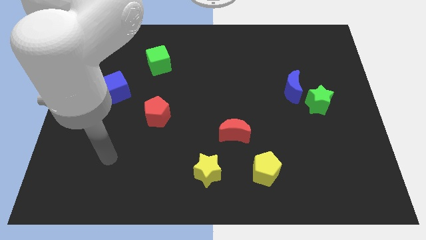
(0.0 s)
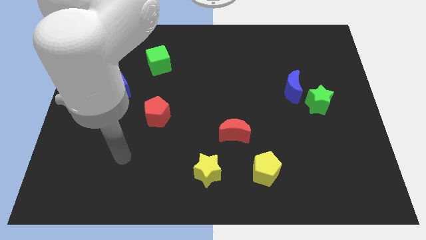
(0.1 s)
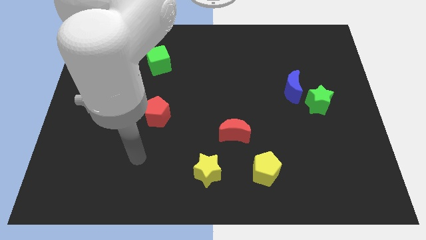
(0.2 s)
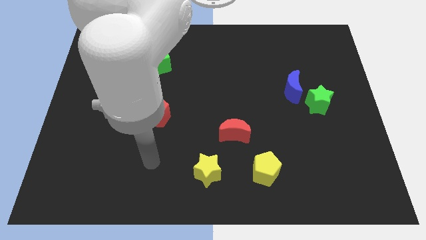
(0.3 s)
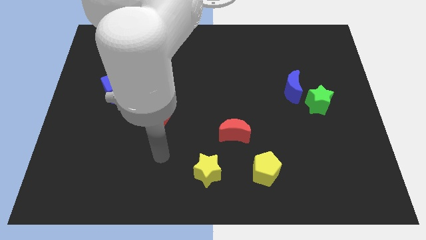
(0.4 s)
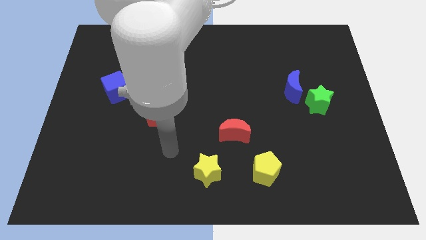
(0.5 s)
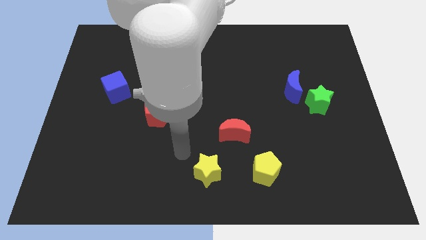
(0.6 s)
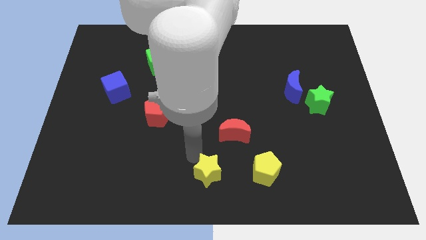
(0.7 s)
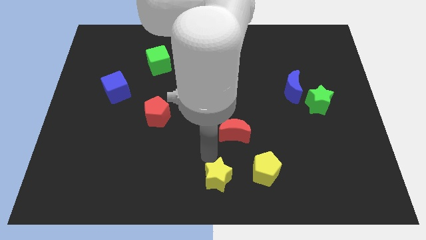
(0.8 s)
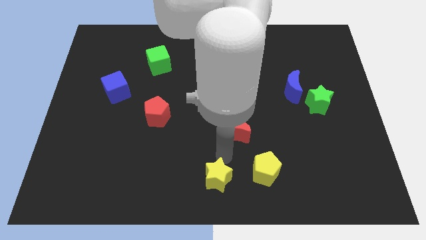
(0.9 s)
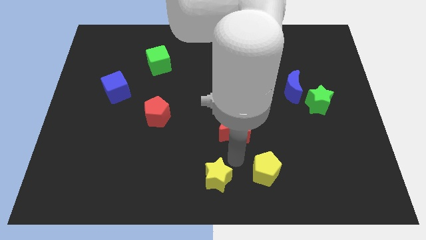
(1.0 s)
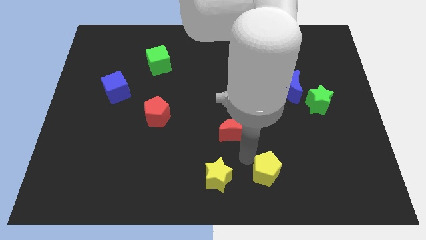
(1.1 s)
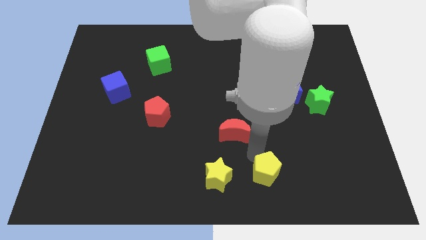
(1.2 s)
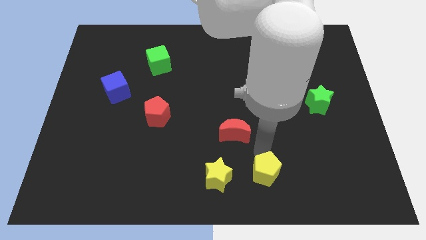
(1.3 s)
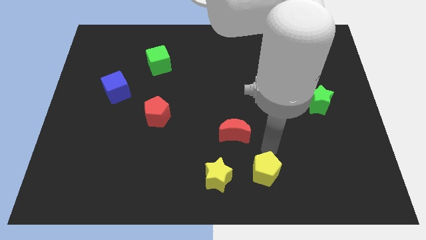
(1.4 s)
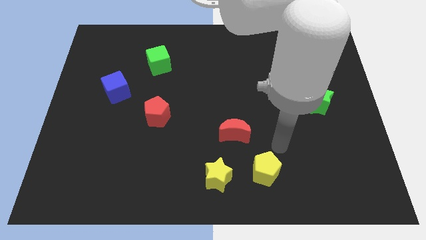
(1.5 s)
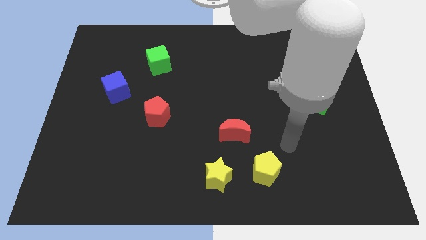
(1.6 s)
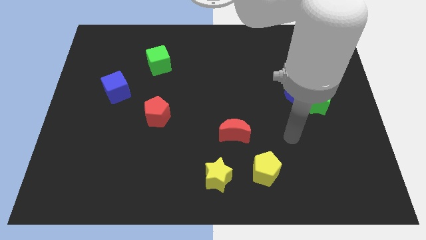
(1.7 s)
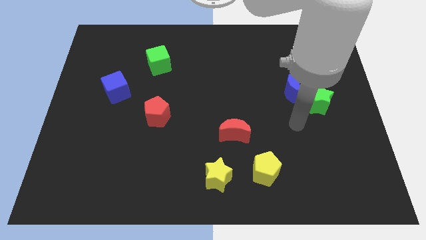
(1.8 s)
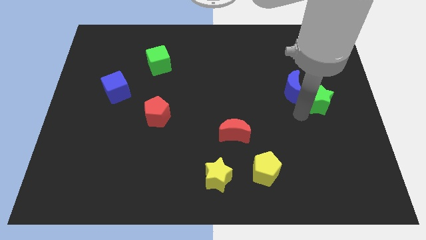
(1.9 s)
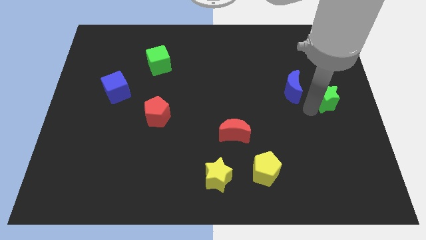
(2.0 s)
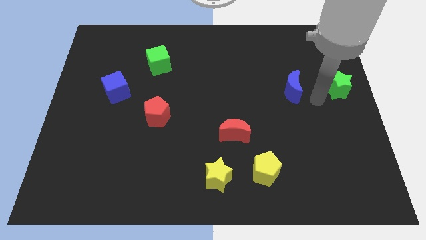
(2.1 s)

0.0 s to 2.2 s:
separate the blue moon from the green star

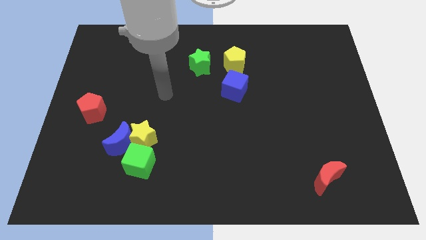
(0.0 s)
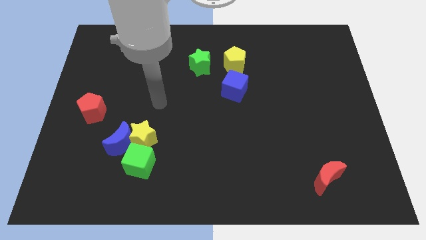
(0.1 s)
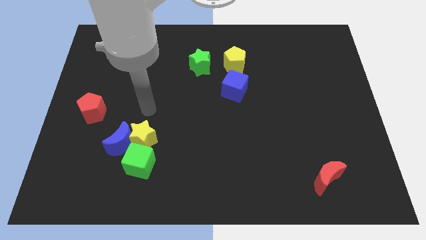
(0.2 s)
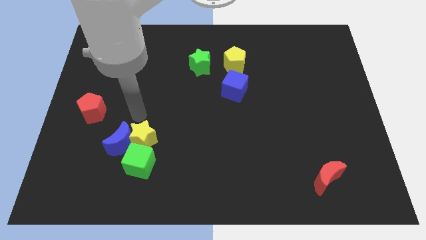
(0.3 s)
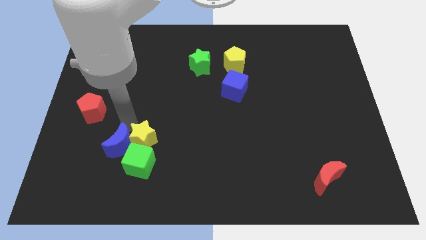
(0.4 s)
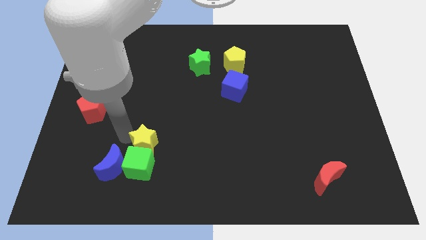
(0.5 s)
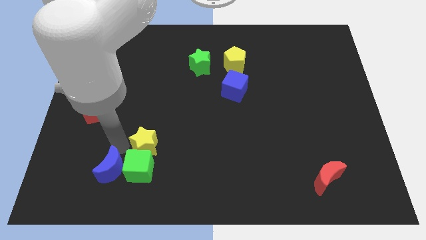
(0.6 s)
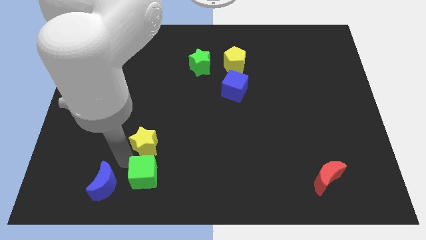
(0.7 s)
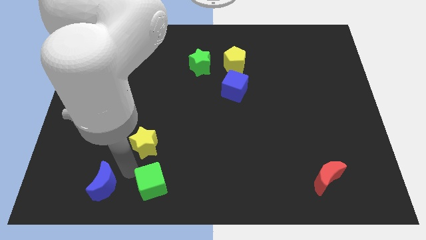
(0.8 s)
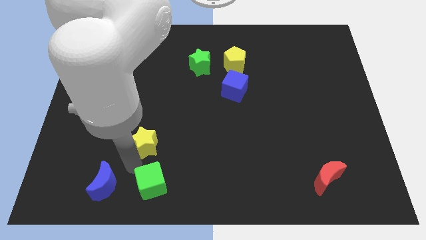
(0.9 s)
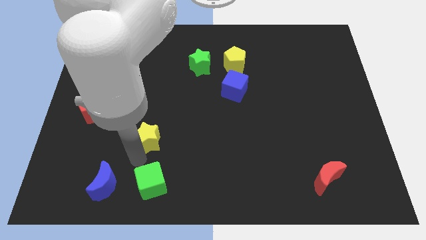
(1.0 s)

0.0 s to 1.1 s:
pull the yellow star apart from the blue moon and green cube

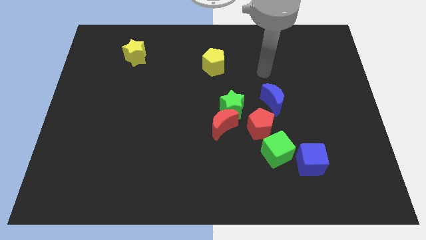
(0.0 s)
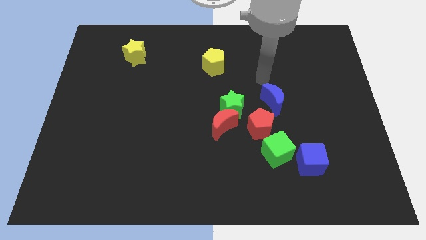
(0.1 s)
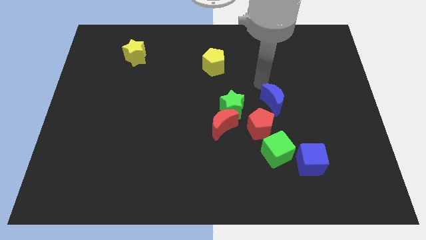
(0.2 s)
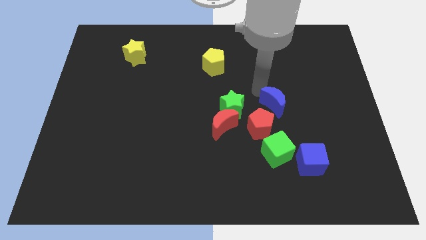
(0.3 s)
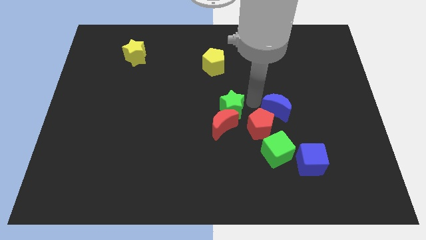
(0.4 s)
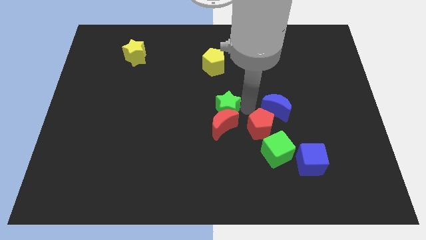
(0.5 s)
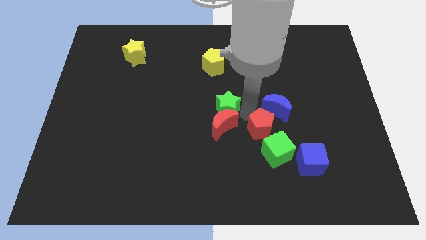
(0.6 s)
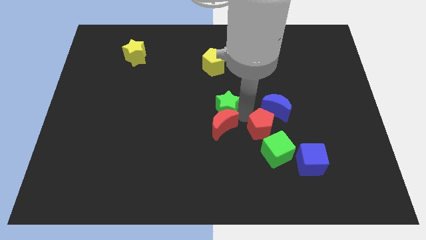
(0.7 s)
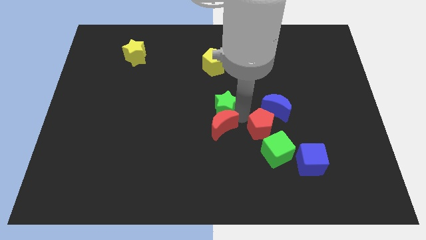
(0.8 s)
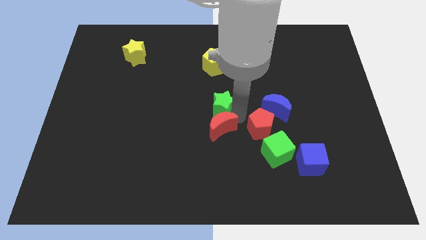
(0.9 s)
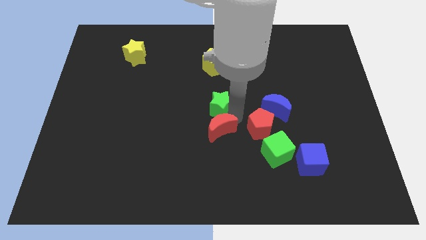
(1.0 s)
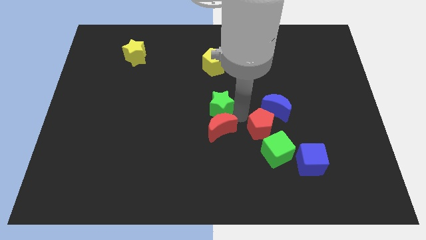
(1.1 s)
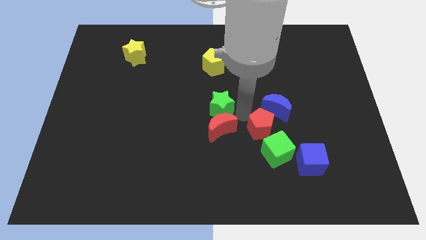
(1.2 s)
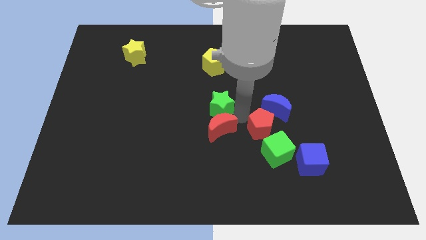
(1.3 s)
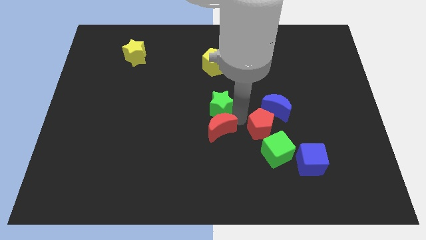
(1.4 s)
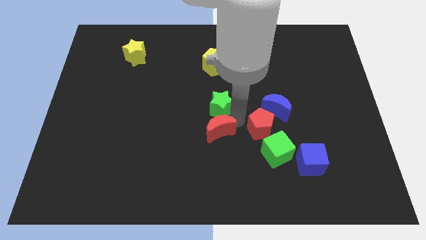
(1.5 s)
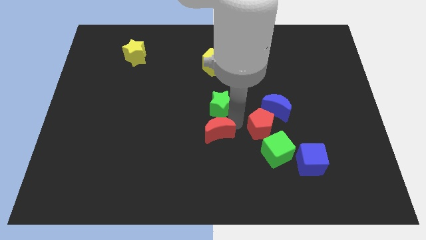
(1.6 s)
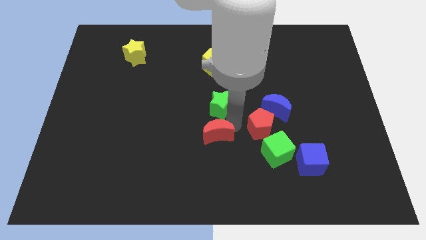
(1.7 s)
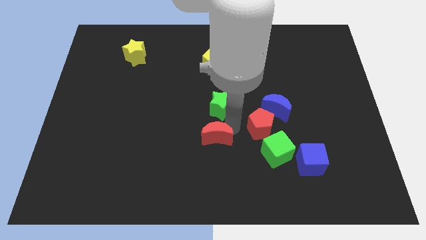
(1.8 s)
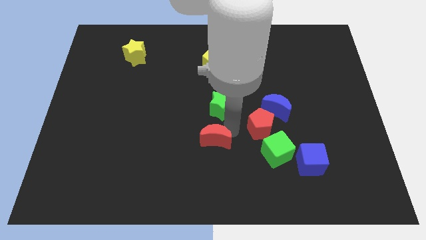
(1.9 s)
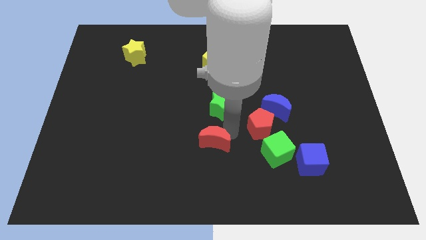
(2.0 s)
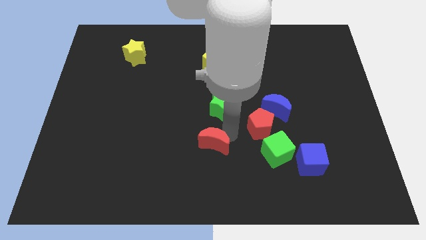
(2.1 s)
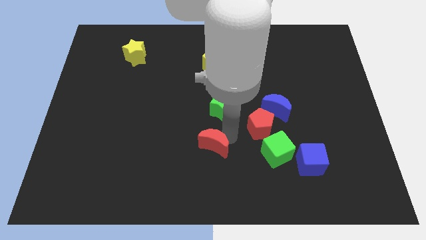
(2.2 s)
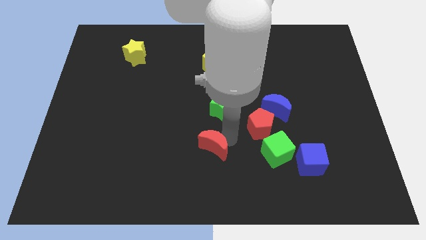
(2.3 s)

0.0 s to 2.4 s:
pull the red moon apart from the green star and red pentagon

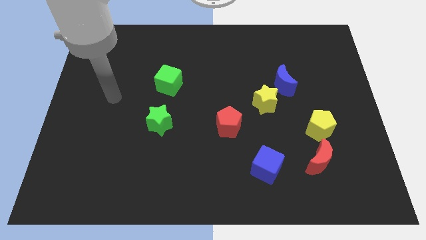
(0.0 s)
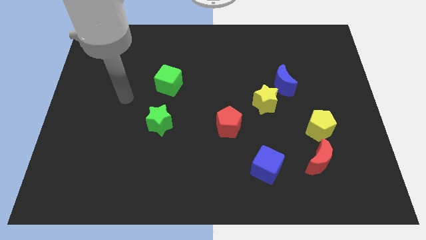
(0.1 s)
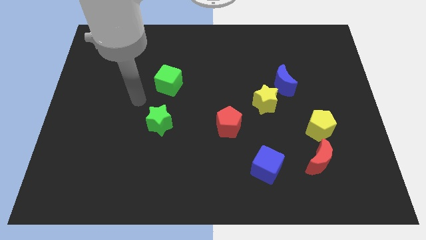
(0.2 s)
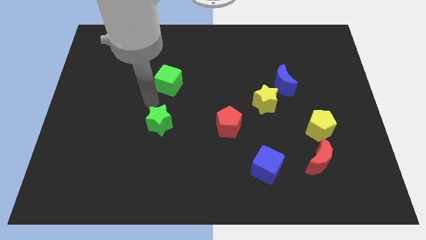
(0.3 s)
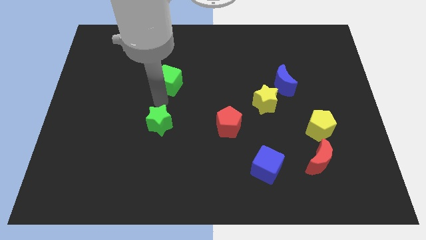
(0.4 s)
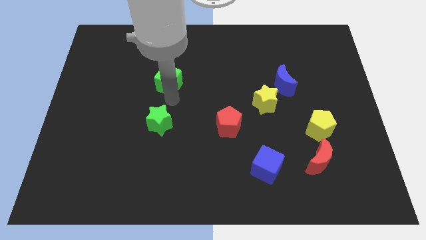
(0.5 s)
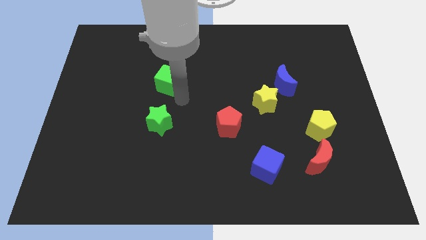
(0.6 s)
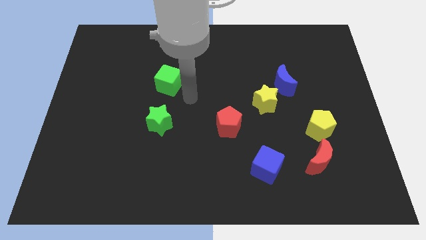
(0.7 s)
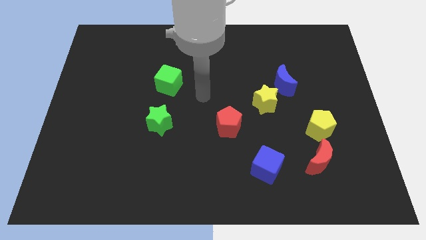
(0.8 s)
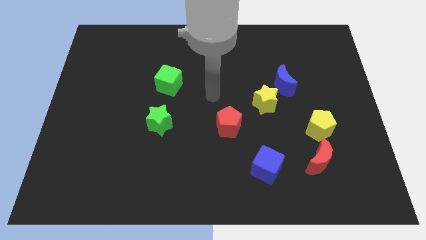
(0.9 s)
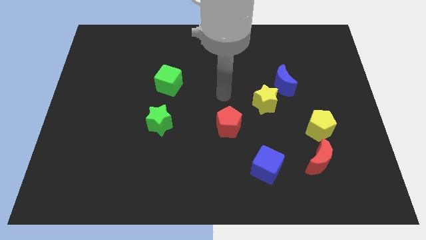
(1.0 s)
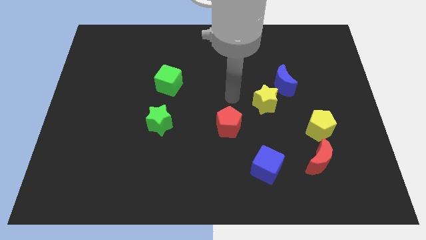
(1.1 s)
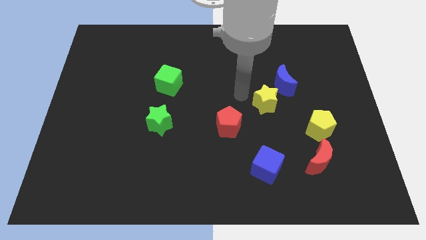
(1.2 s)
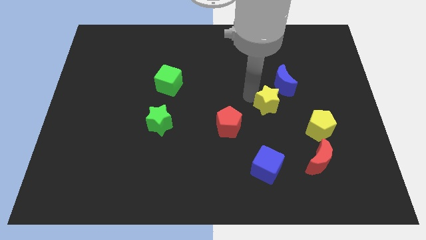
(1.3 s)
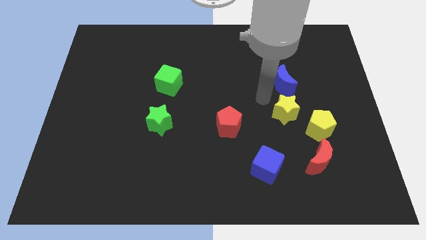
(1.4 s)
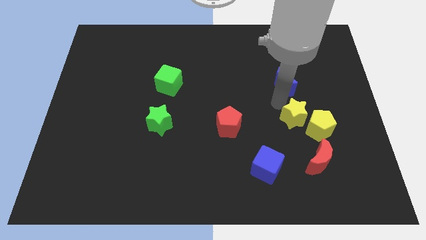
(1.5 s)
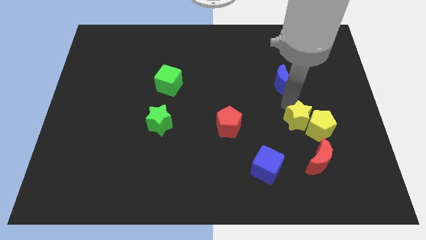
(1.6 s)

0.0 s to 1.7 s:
pull the blue moon apart from the yellow star

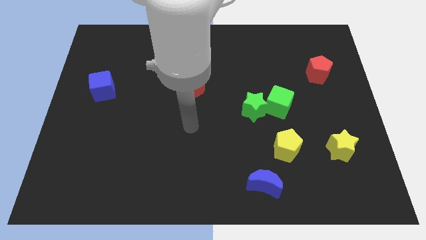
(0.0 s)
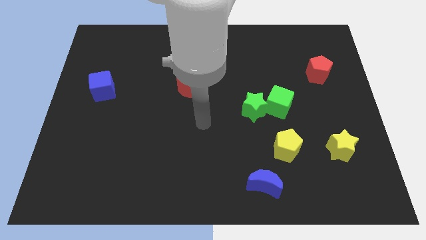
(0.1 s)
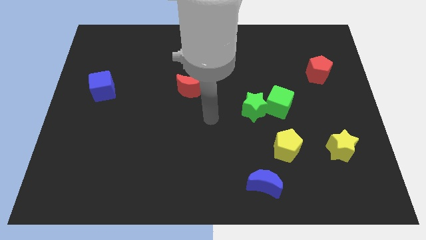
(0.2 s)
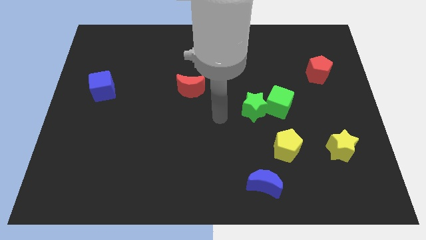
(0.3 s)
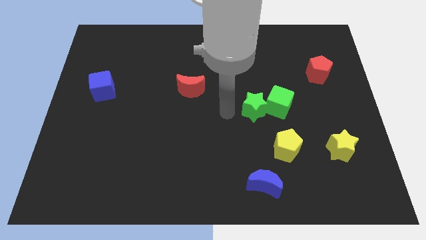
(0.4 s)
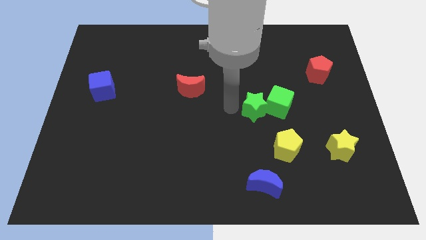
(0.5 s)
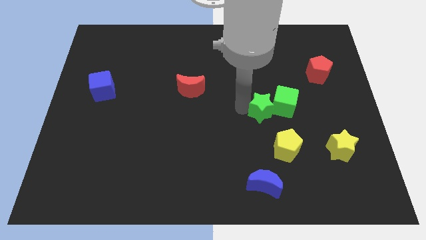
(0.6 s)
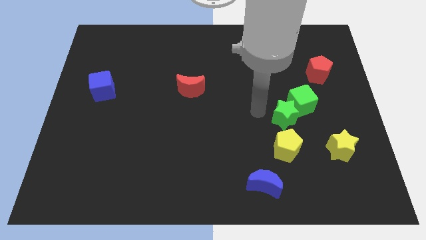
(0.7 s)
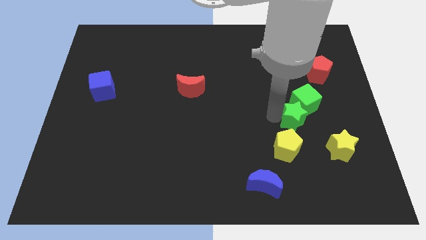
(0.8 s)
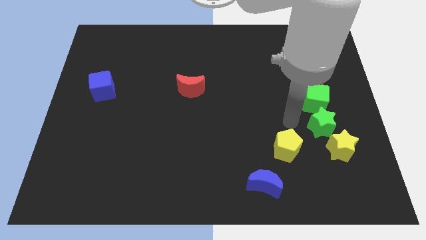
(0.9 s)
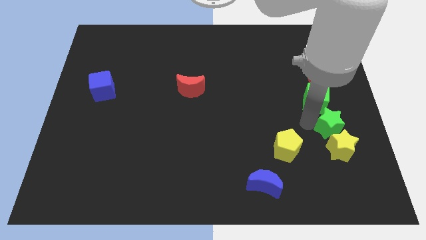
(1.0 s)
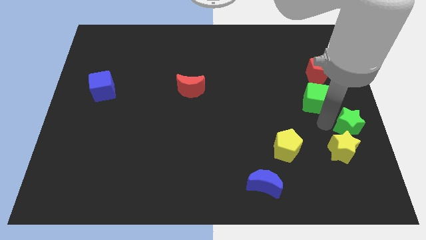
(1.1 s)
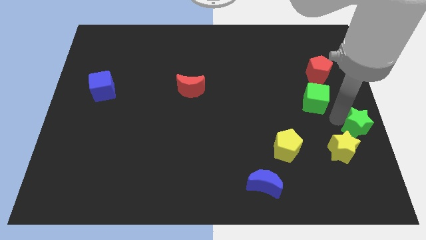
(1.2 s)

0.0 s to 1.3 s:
pull the green cube apart from the green star

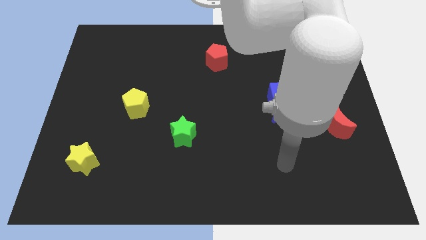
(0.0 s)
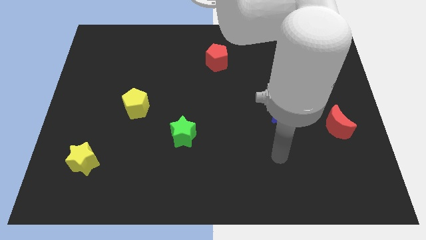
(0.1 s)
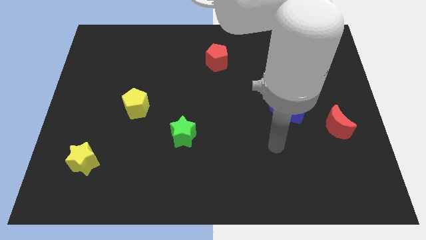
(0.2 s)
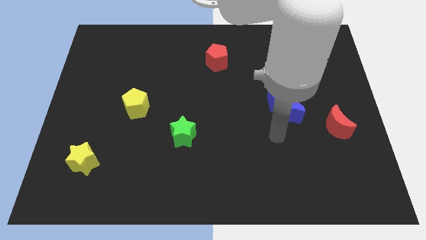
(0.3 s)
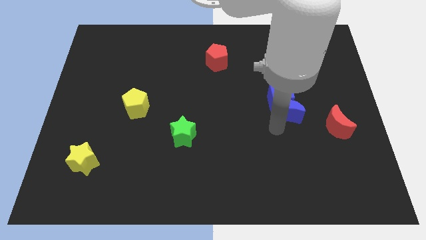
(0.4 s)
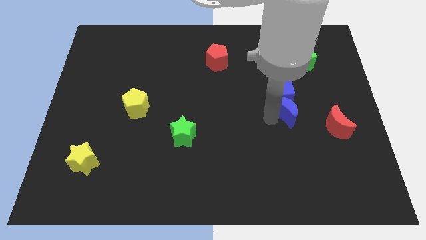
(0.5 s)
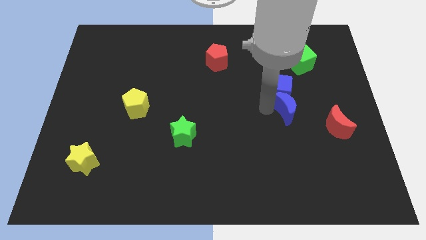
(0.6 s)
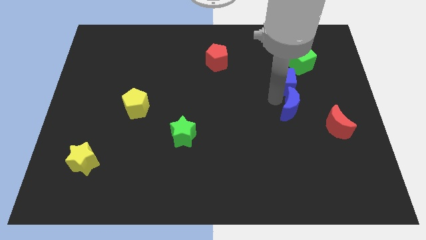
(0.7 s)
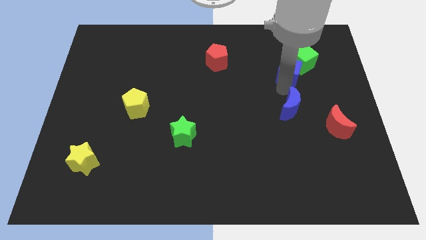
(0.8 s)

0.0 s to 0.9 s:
pull the blue moon apart from the blue cube
